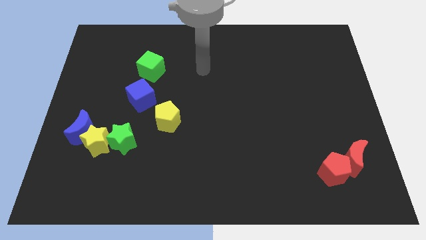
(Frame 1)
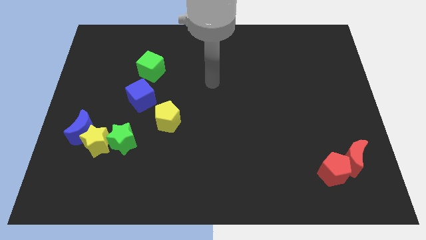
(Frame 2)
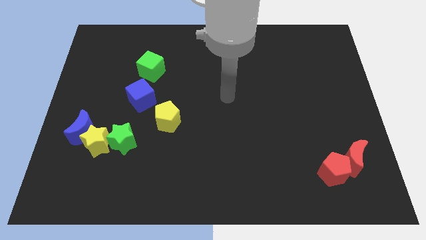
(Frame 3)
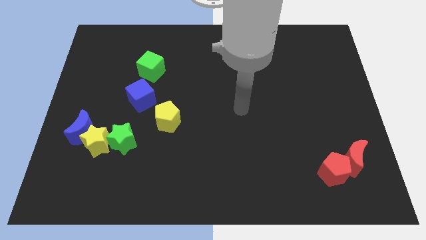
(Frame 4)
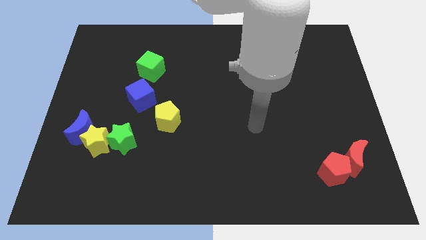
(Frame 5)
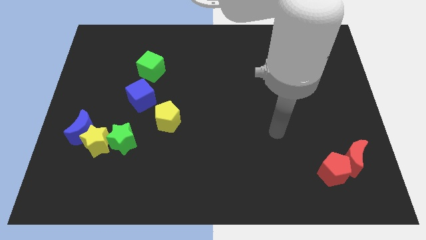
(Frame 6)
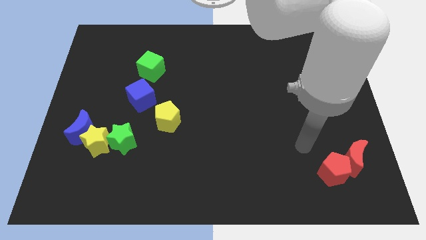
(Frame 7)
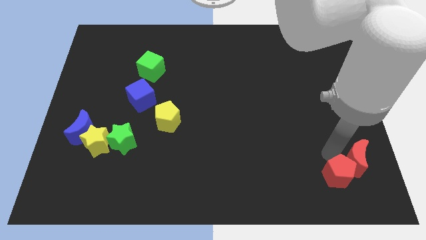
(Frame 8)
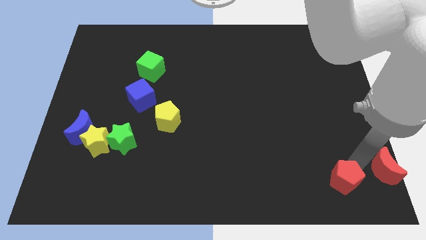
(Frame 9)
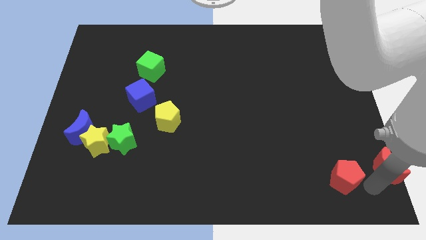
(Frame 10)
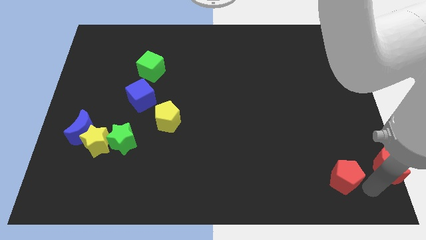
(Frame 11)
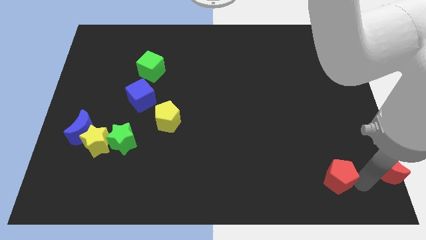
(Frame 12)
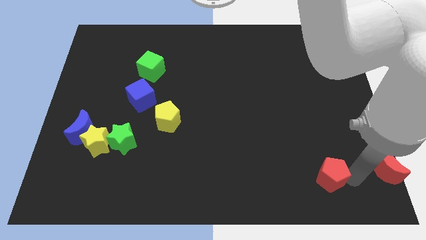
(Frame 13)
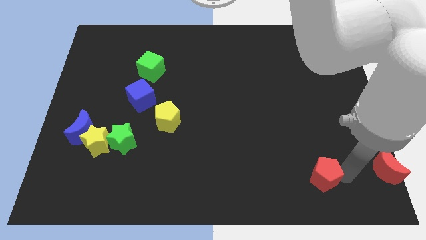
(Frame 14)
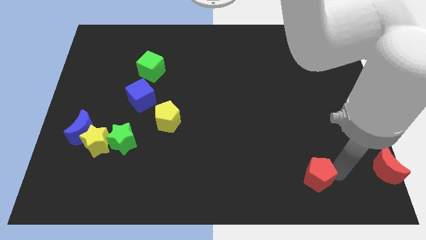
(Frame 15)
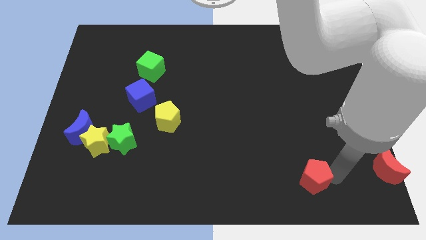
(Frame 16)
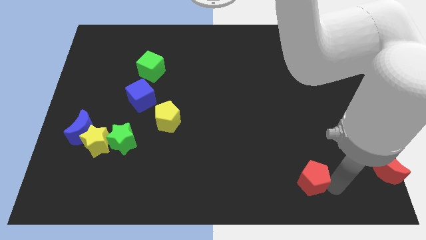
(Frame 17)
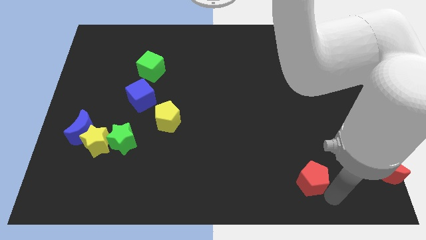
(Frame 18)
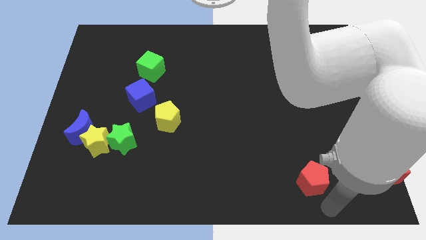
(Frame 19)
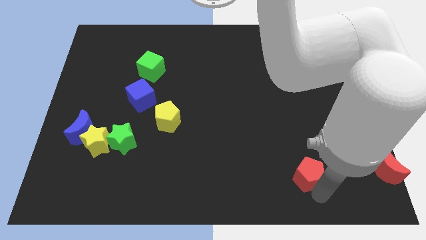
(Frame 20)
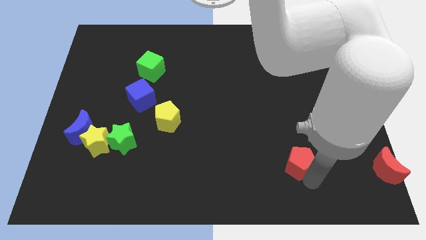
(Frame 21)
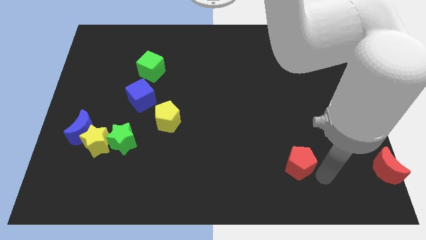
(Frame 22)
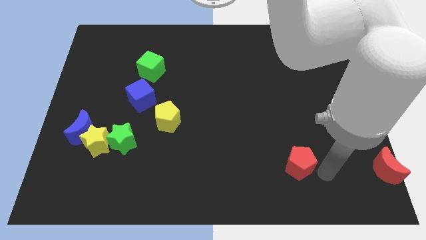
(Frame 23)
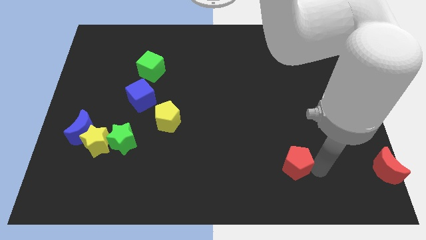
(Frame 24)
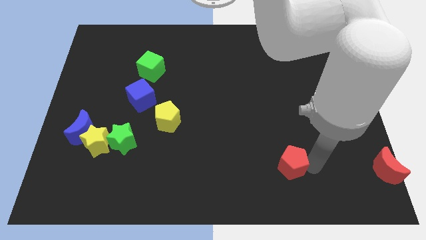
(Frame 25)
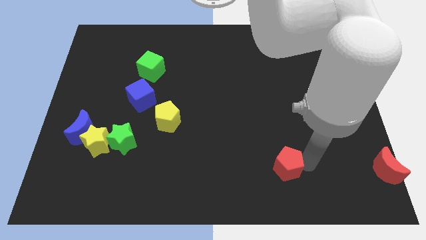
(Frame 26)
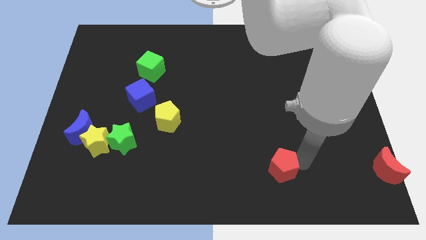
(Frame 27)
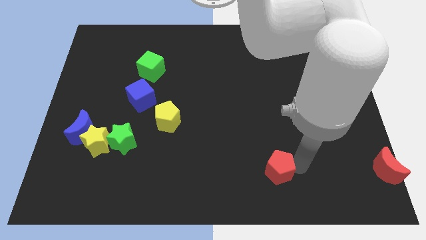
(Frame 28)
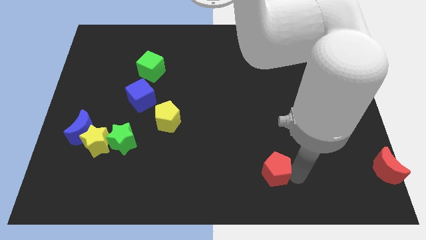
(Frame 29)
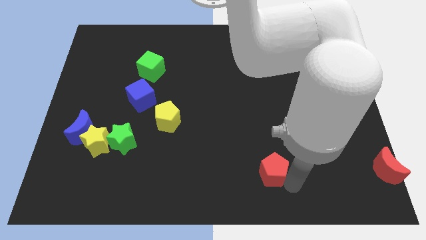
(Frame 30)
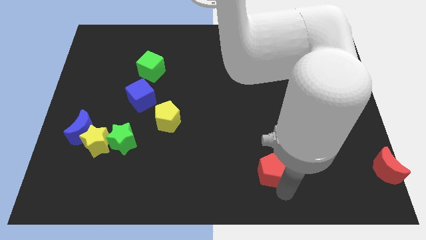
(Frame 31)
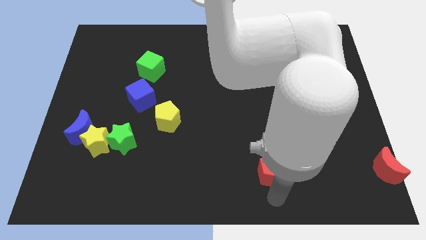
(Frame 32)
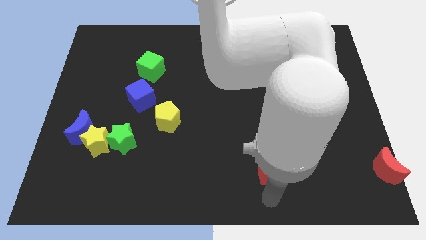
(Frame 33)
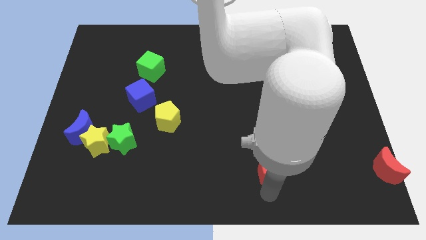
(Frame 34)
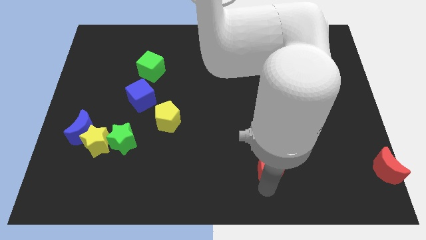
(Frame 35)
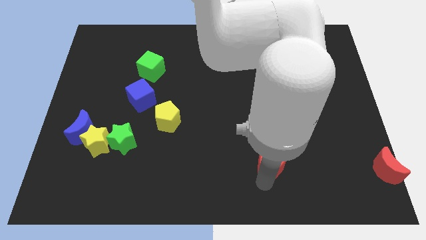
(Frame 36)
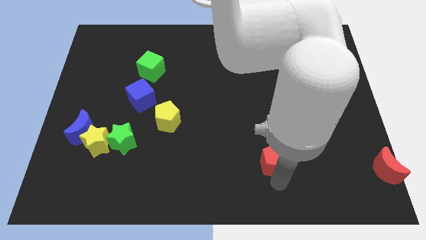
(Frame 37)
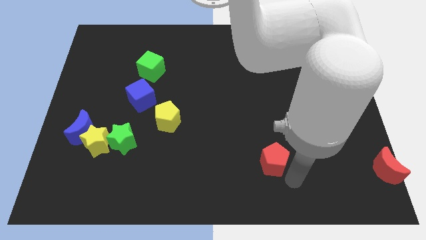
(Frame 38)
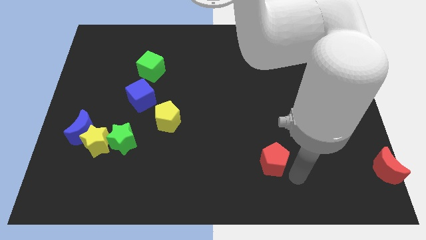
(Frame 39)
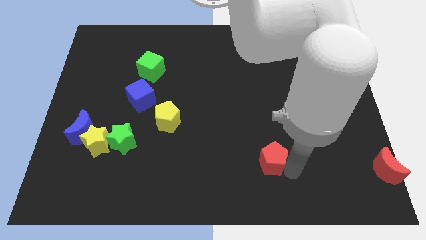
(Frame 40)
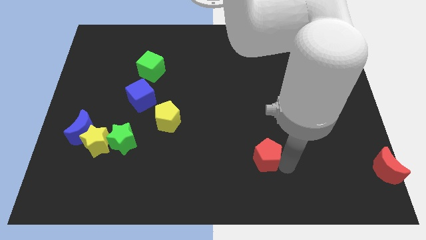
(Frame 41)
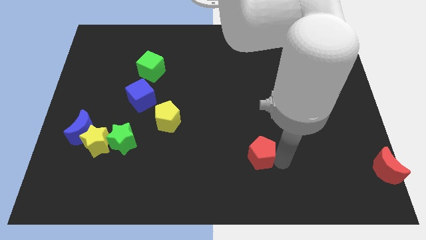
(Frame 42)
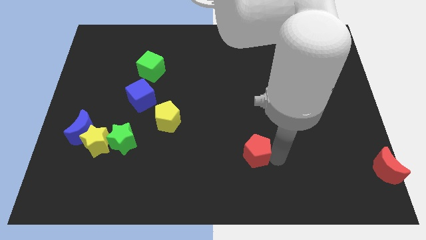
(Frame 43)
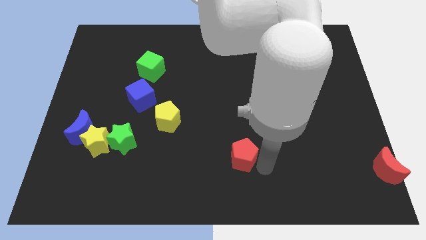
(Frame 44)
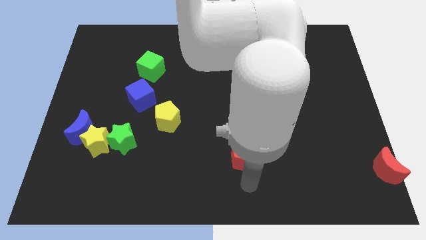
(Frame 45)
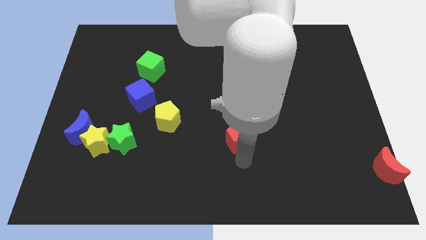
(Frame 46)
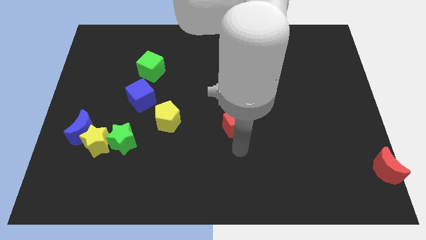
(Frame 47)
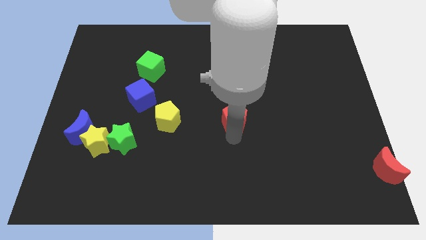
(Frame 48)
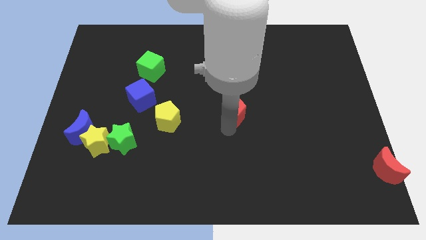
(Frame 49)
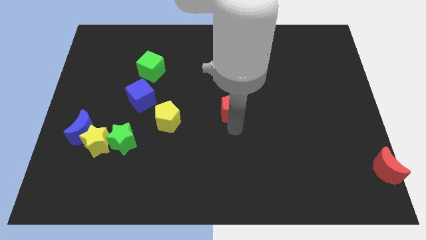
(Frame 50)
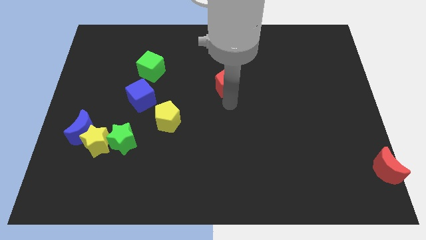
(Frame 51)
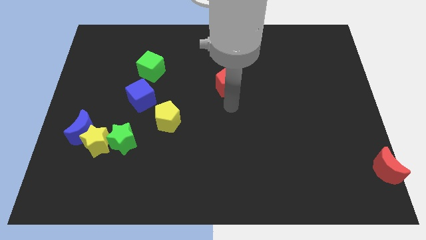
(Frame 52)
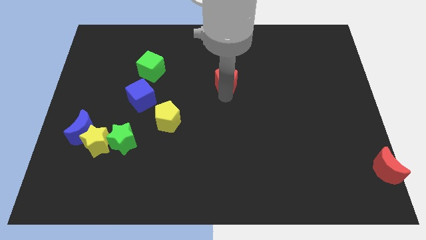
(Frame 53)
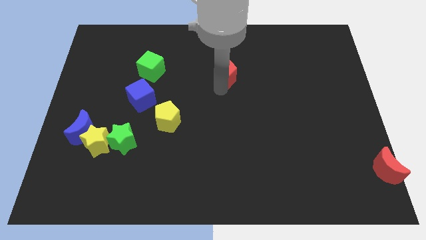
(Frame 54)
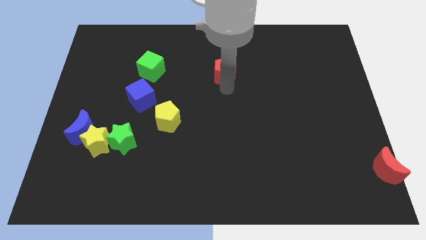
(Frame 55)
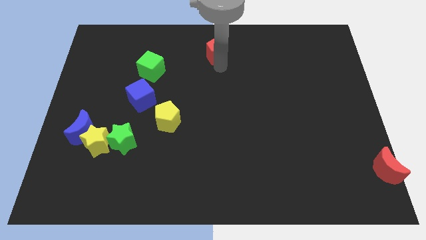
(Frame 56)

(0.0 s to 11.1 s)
put the red pentagon to the top

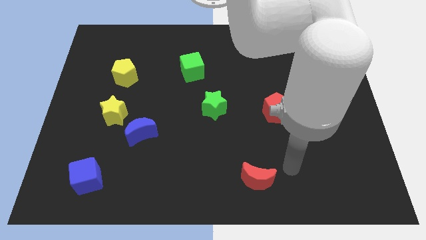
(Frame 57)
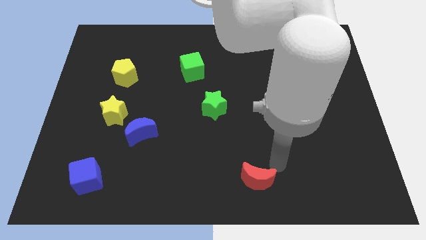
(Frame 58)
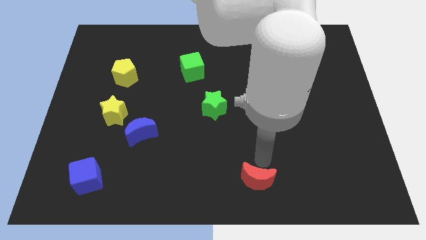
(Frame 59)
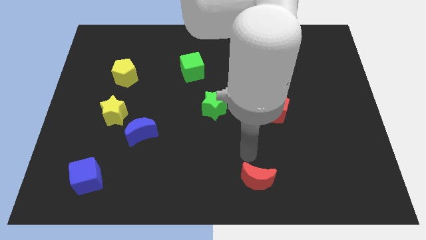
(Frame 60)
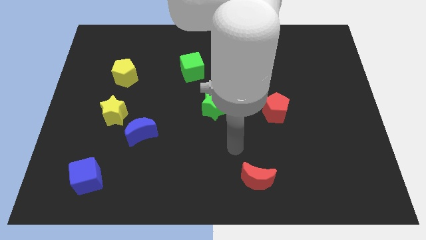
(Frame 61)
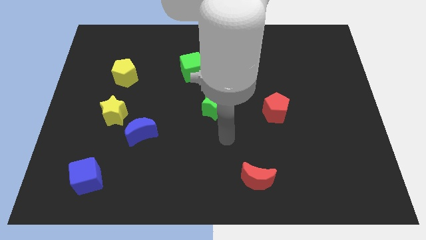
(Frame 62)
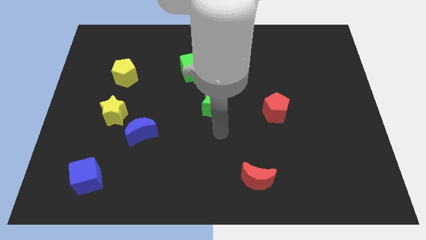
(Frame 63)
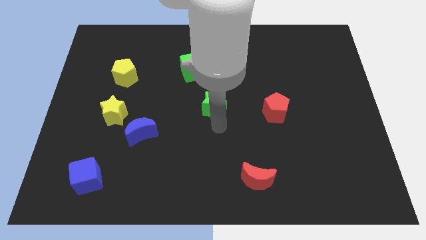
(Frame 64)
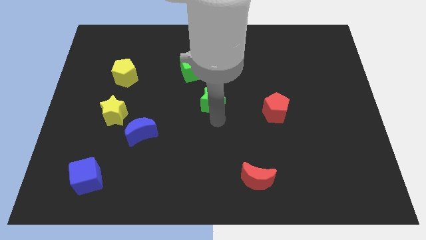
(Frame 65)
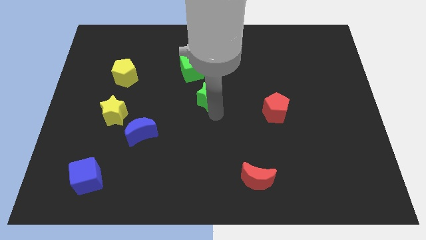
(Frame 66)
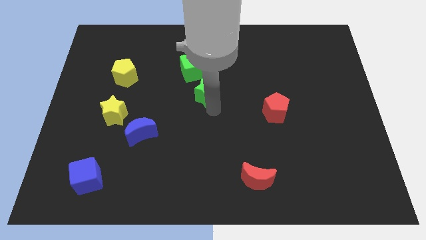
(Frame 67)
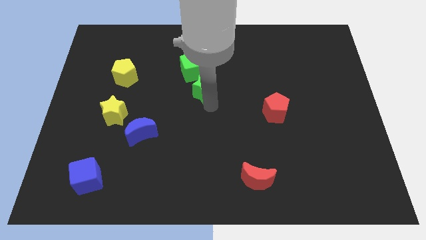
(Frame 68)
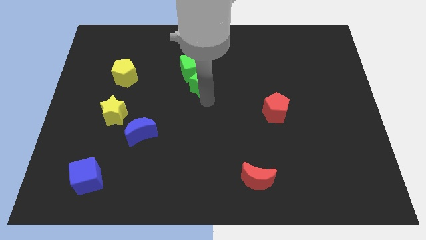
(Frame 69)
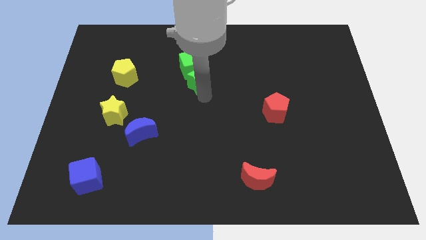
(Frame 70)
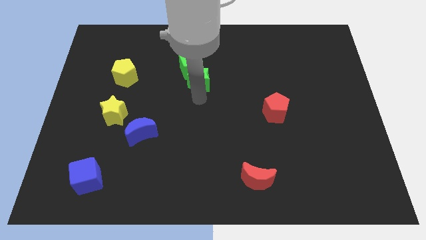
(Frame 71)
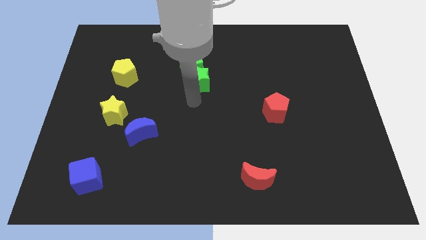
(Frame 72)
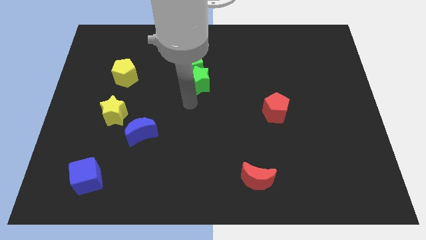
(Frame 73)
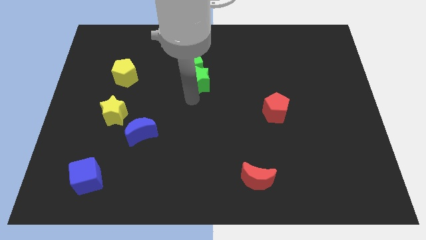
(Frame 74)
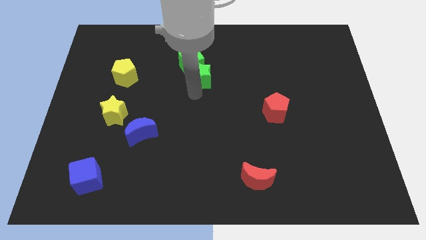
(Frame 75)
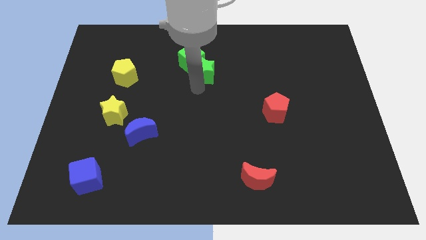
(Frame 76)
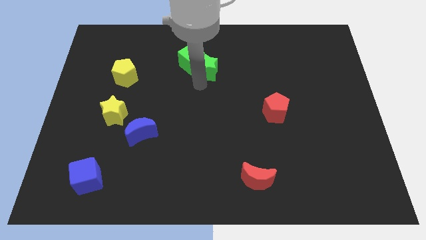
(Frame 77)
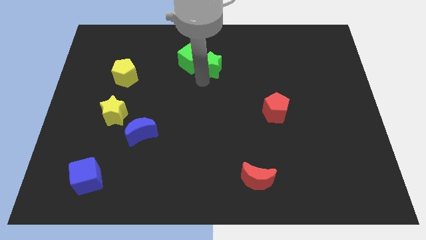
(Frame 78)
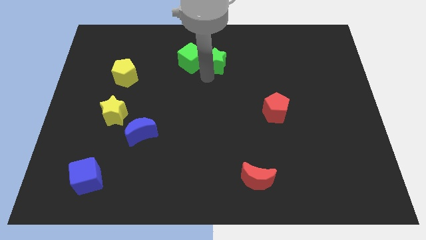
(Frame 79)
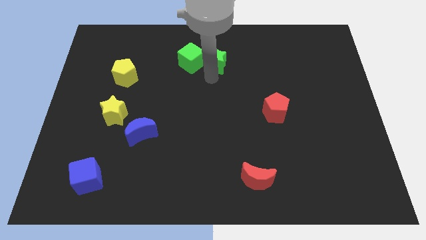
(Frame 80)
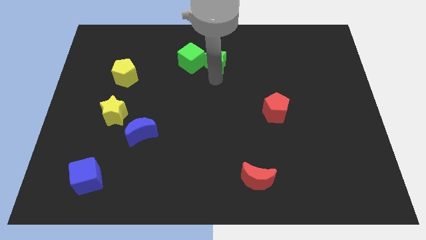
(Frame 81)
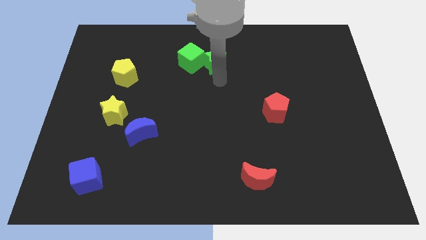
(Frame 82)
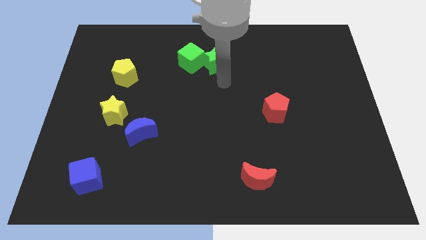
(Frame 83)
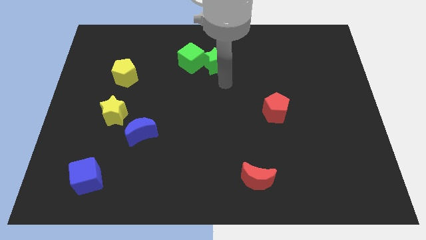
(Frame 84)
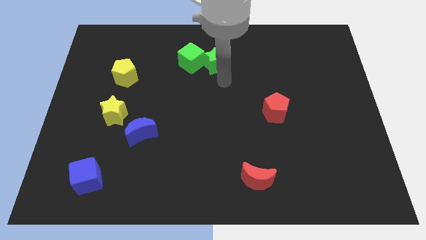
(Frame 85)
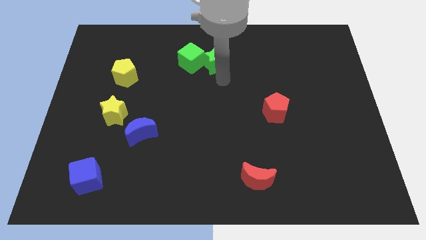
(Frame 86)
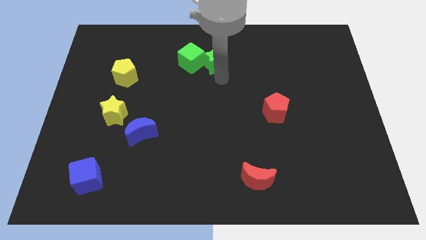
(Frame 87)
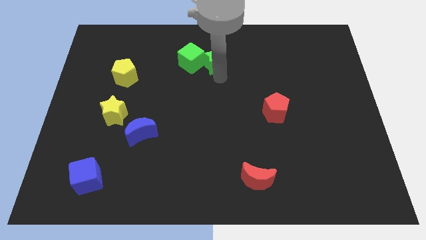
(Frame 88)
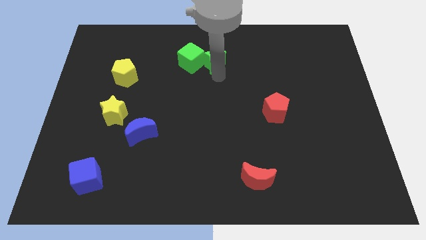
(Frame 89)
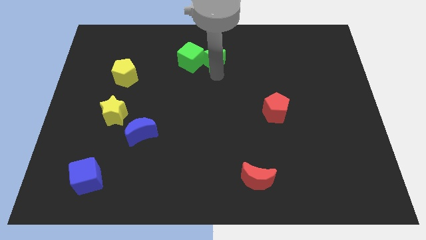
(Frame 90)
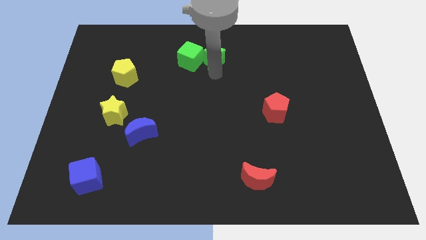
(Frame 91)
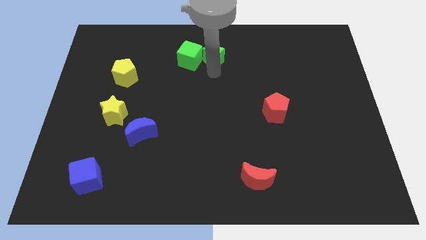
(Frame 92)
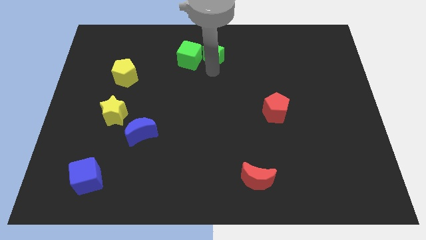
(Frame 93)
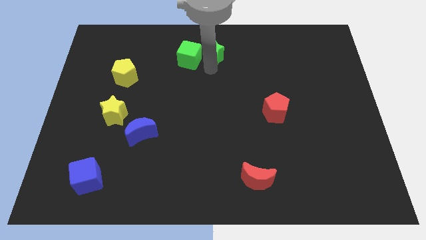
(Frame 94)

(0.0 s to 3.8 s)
put the green star to the top
